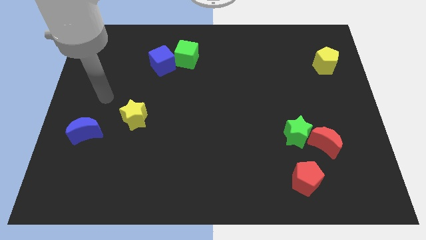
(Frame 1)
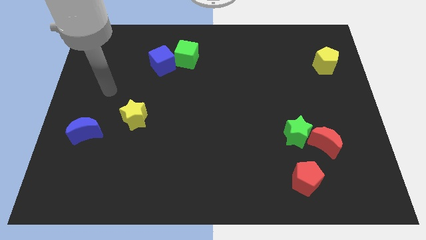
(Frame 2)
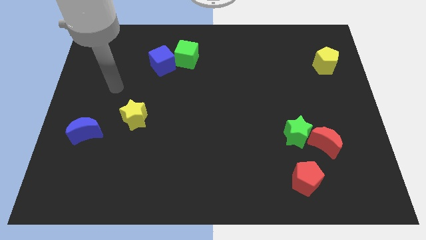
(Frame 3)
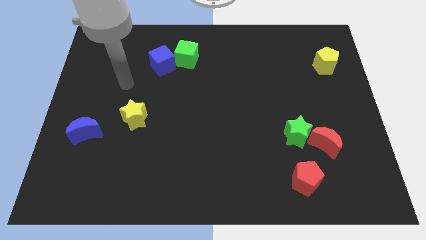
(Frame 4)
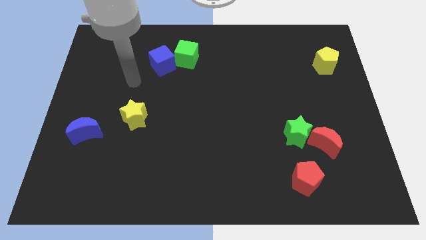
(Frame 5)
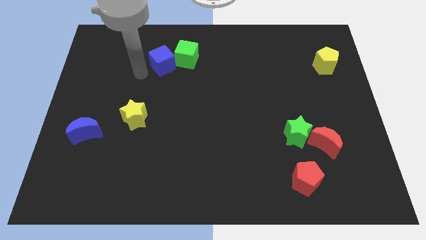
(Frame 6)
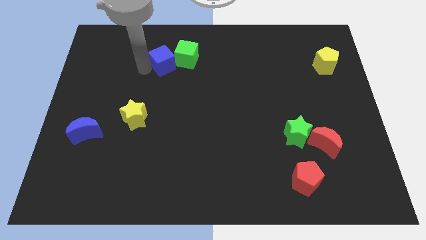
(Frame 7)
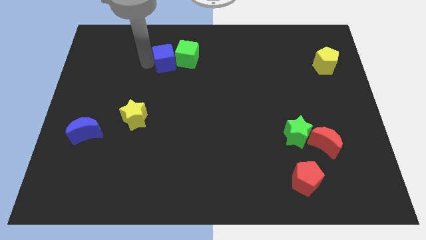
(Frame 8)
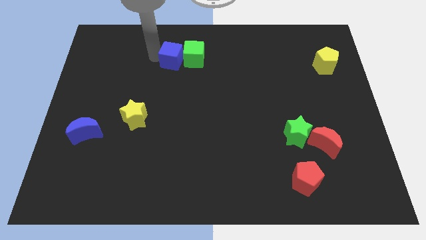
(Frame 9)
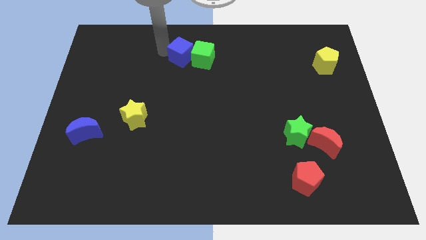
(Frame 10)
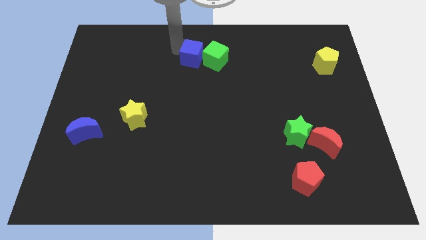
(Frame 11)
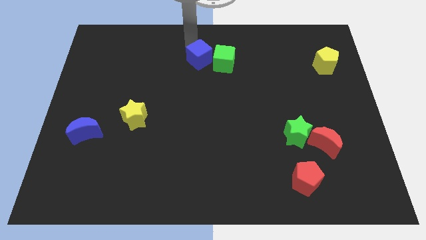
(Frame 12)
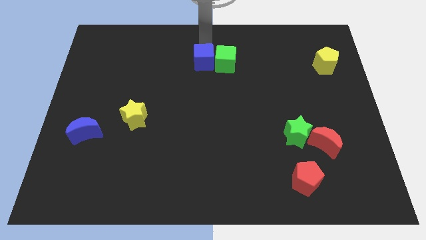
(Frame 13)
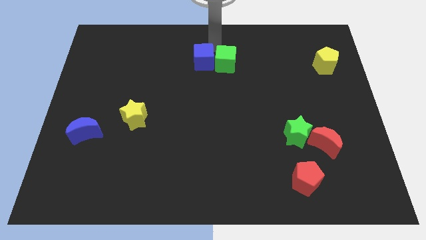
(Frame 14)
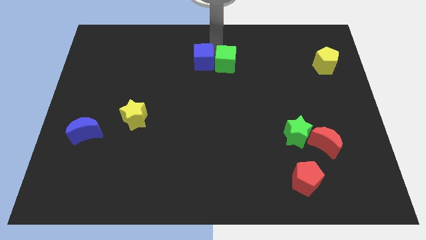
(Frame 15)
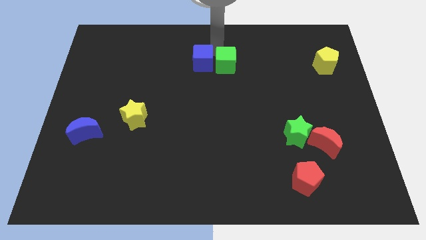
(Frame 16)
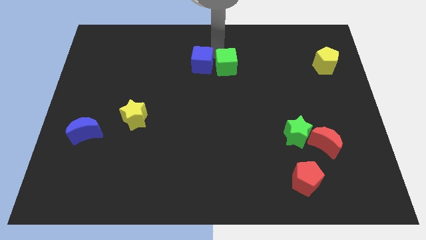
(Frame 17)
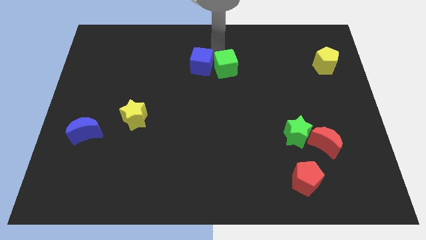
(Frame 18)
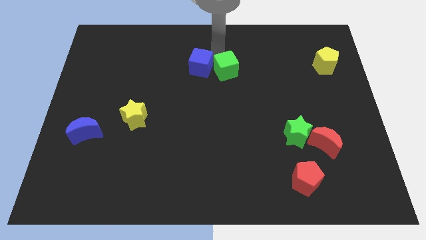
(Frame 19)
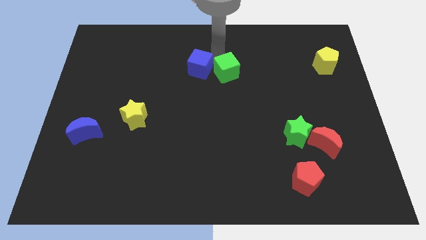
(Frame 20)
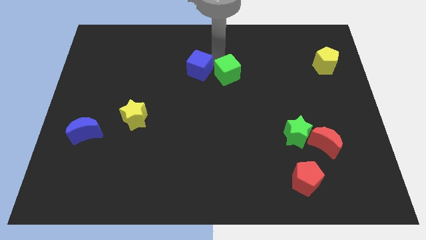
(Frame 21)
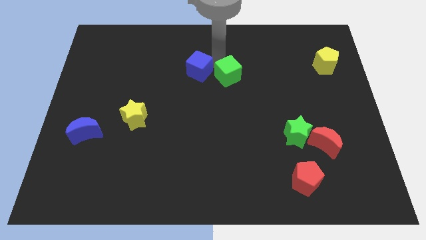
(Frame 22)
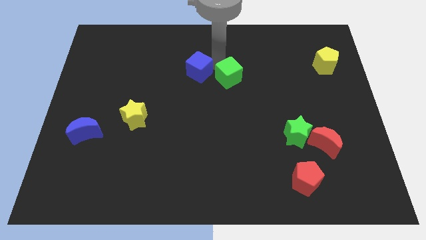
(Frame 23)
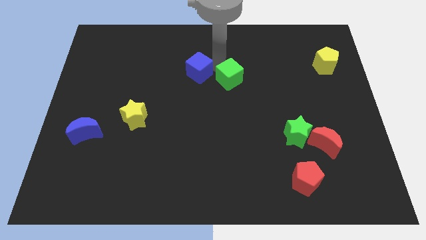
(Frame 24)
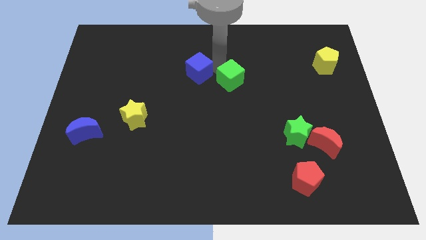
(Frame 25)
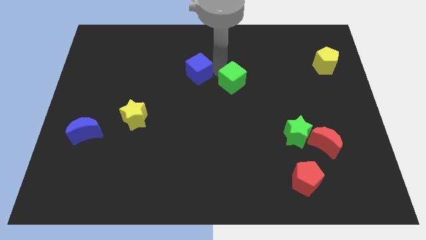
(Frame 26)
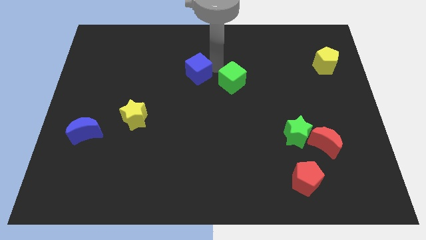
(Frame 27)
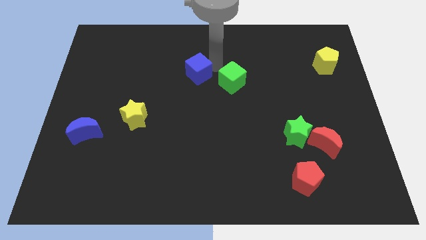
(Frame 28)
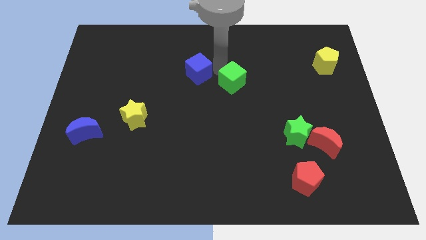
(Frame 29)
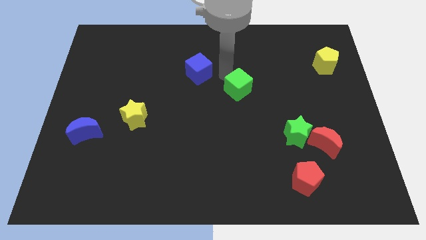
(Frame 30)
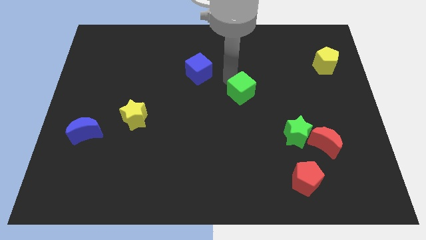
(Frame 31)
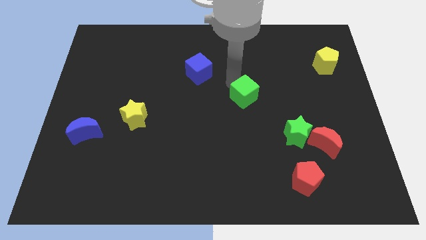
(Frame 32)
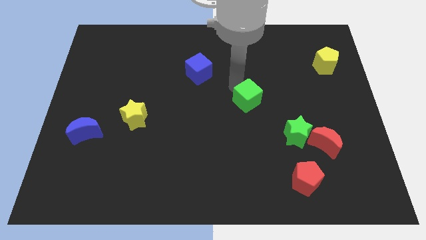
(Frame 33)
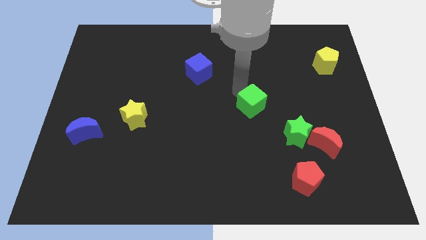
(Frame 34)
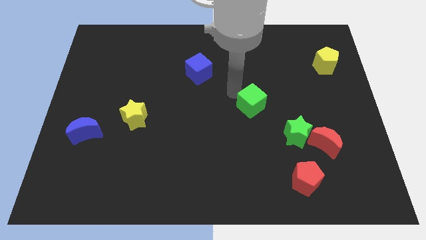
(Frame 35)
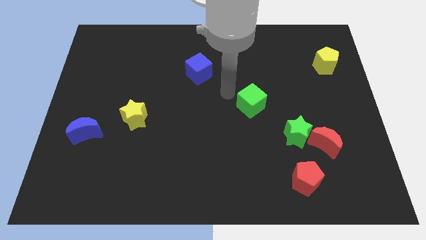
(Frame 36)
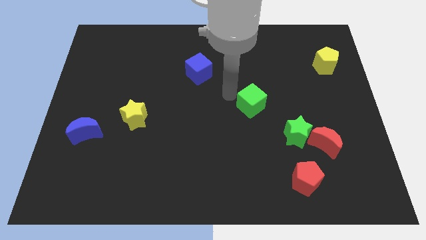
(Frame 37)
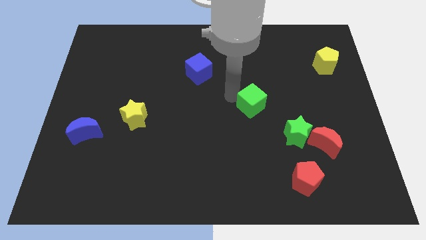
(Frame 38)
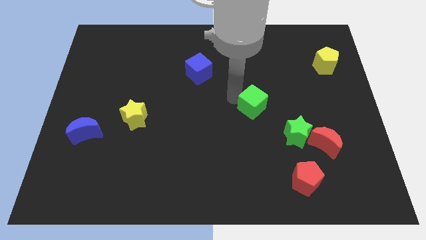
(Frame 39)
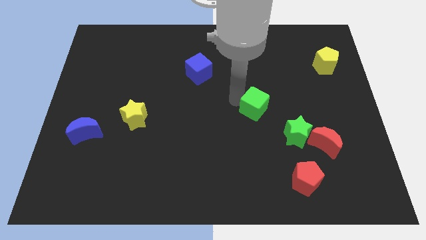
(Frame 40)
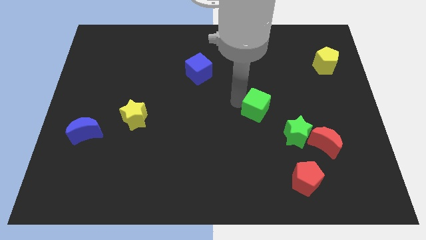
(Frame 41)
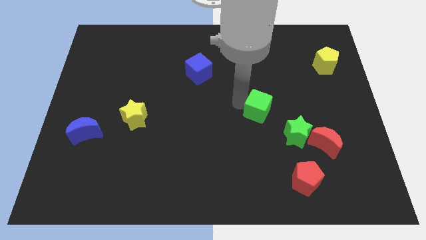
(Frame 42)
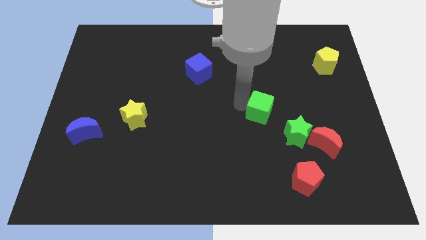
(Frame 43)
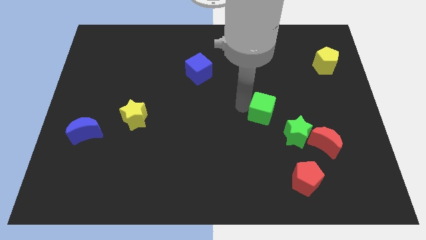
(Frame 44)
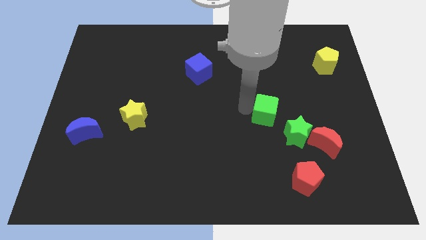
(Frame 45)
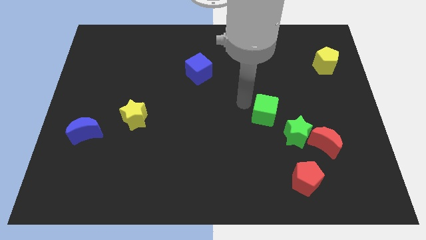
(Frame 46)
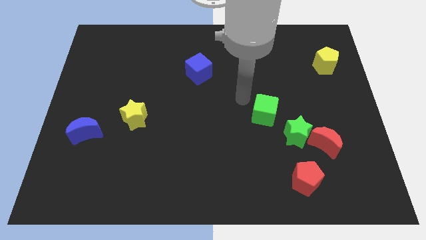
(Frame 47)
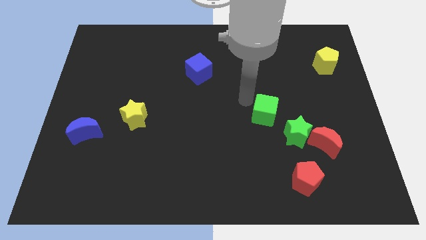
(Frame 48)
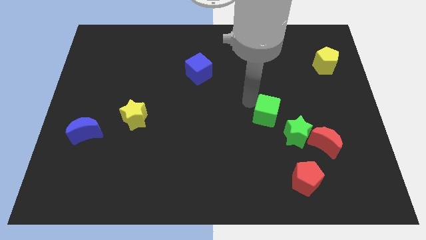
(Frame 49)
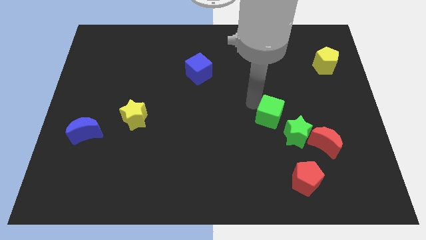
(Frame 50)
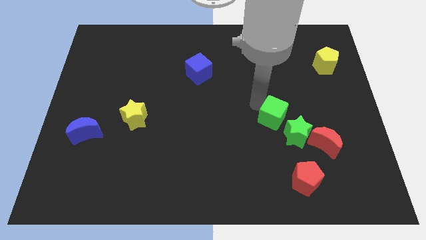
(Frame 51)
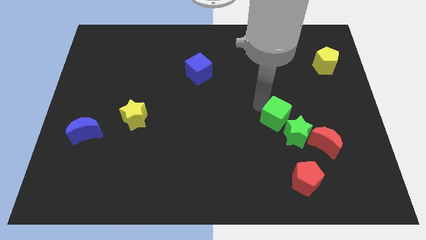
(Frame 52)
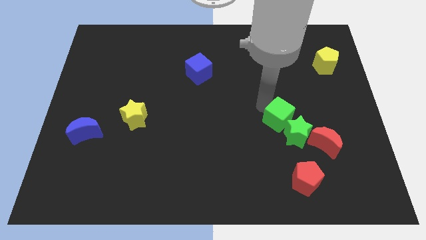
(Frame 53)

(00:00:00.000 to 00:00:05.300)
slide the green cube towards the green star

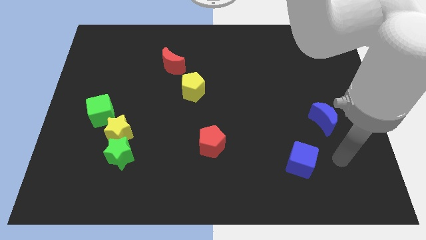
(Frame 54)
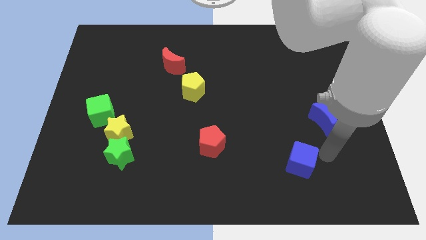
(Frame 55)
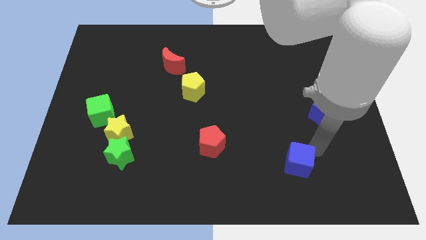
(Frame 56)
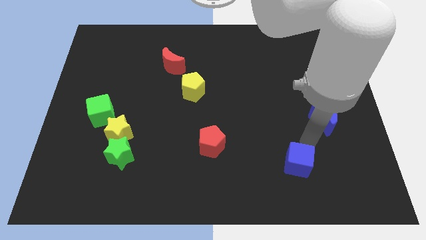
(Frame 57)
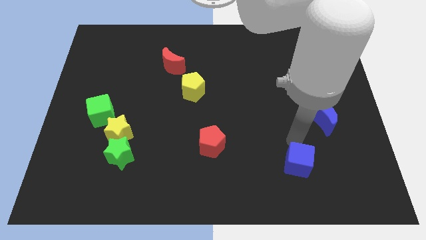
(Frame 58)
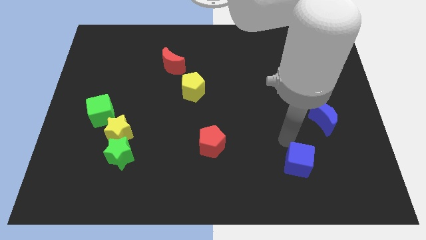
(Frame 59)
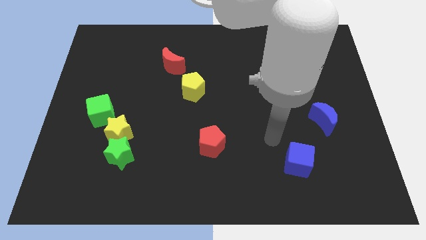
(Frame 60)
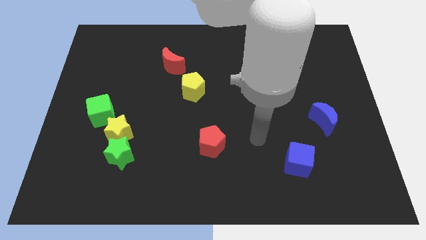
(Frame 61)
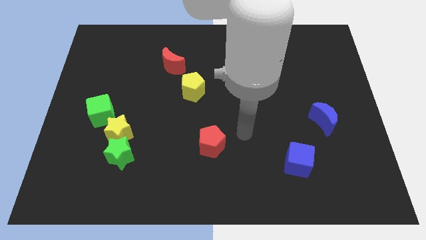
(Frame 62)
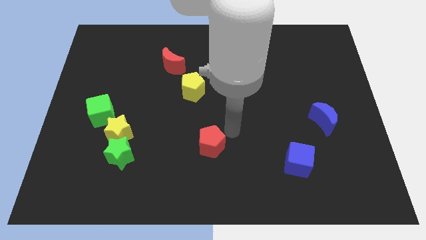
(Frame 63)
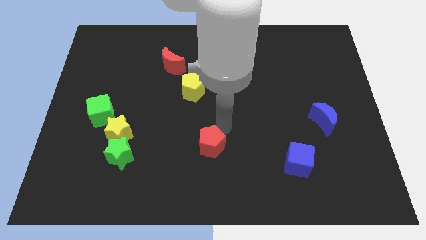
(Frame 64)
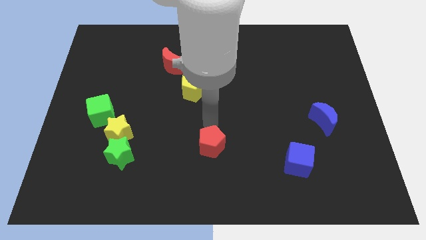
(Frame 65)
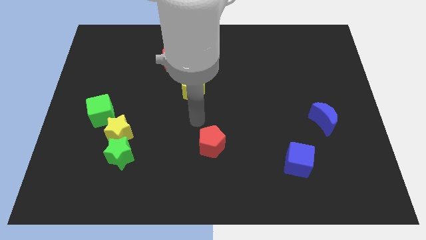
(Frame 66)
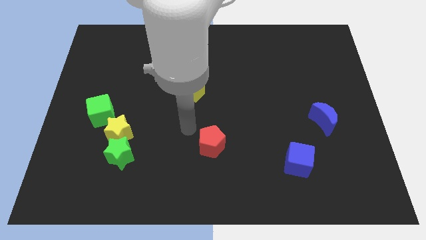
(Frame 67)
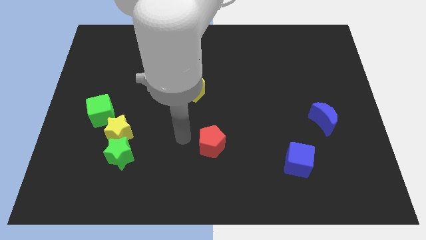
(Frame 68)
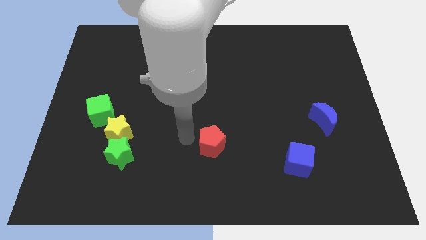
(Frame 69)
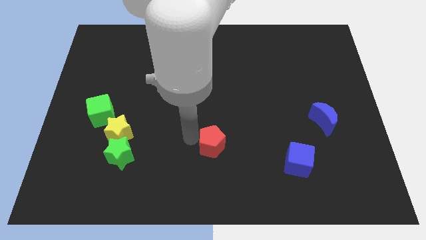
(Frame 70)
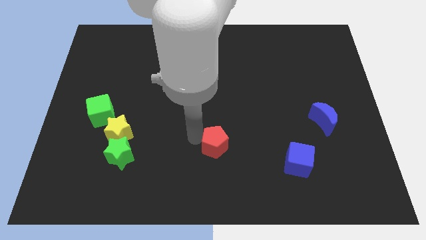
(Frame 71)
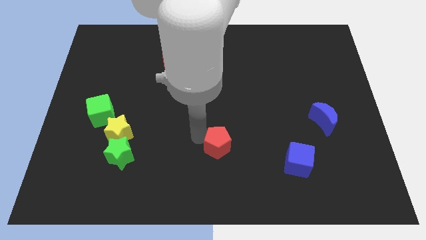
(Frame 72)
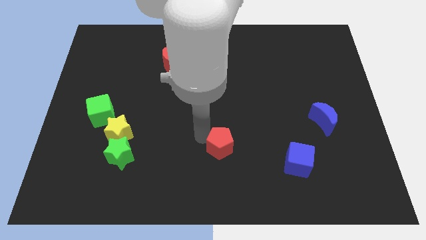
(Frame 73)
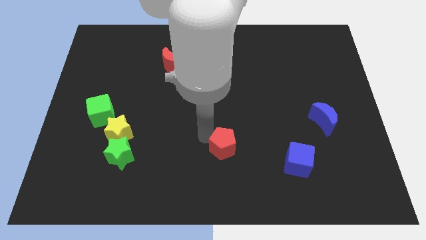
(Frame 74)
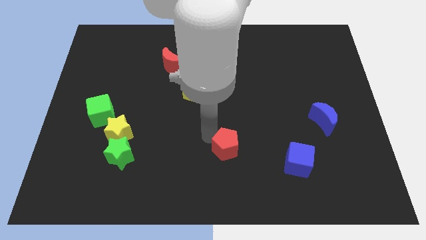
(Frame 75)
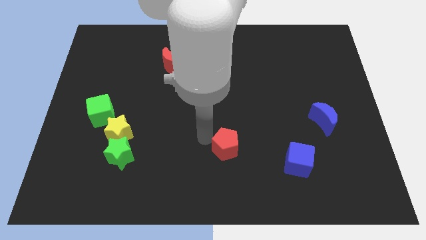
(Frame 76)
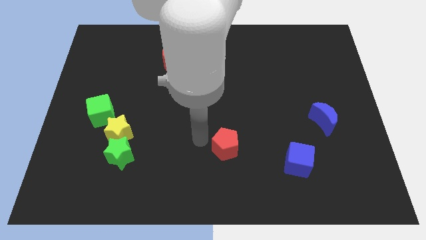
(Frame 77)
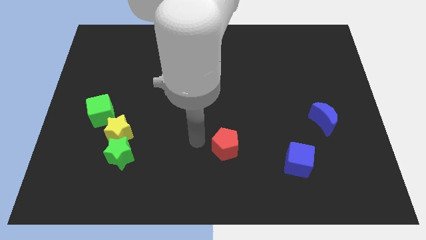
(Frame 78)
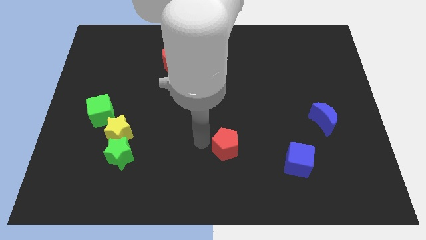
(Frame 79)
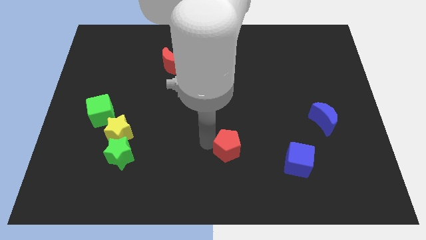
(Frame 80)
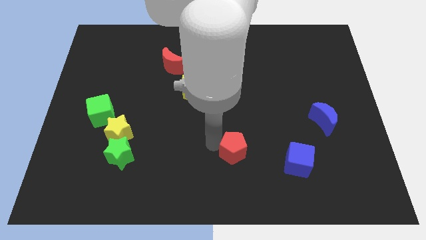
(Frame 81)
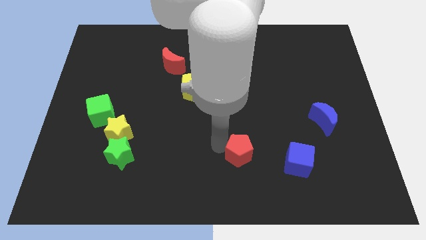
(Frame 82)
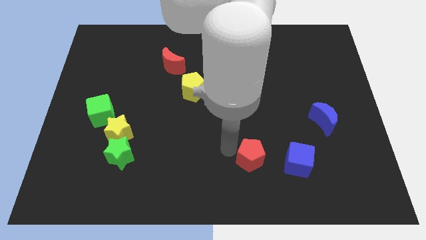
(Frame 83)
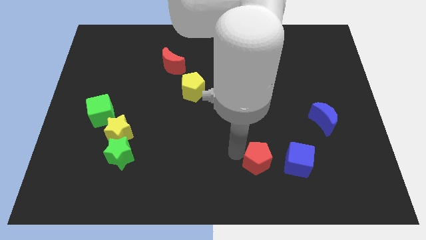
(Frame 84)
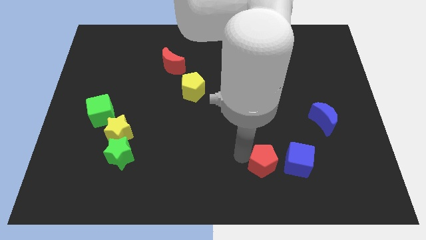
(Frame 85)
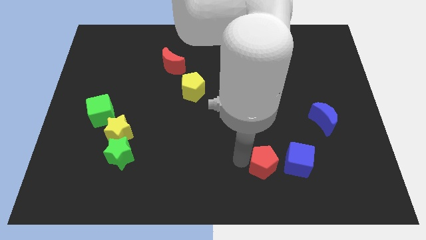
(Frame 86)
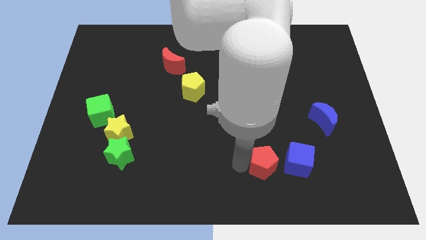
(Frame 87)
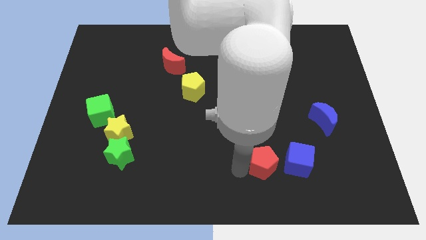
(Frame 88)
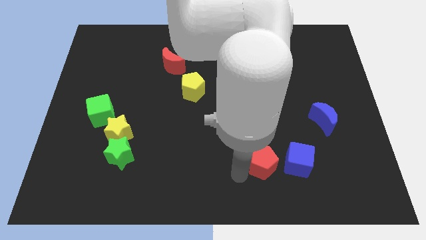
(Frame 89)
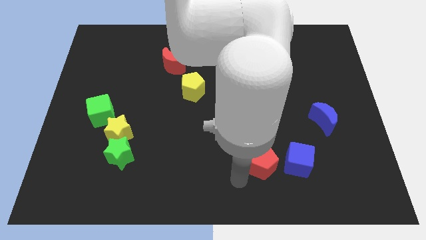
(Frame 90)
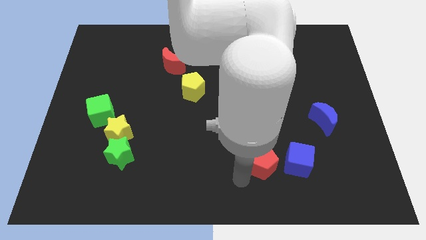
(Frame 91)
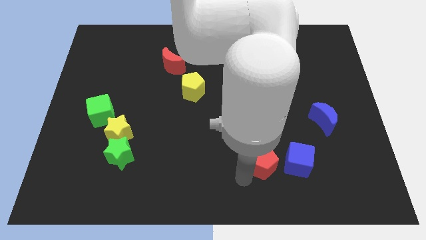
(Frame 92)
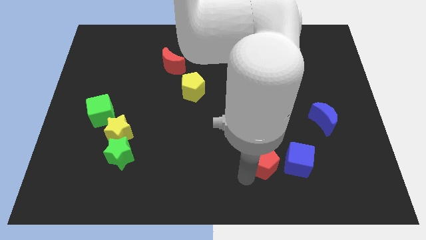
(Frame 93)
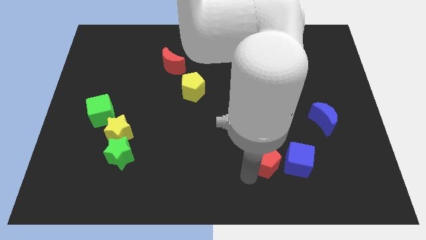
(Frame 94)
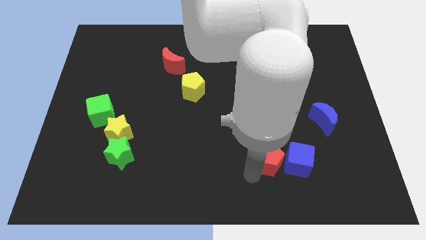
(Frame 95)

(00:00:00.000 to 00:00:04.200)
put the red pentagon next to the blue cube
